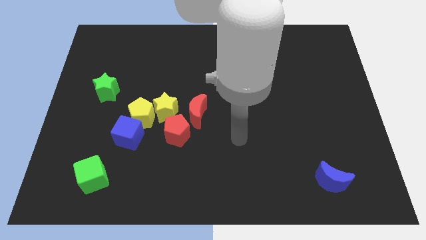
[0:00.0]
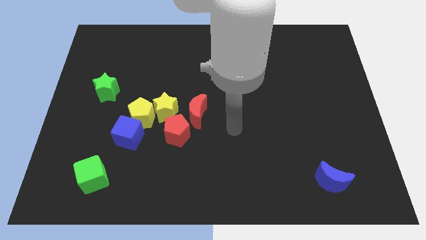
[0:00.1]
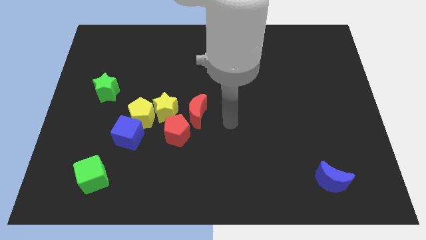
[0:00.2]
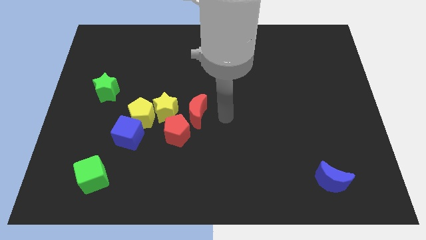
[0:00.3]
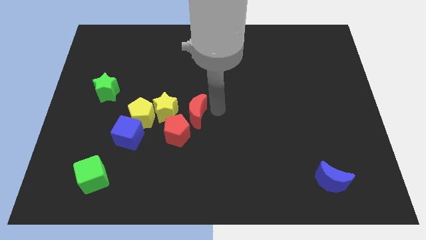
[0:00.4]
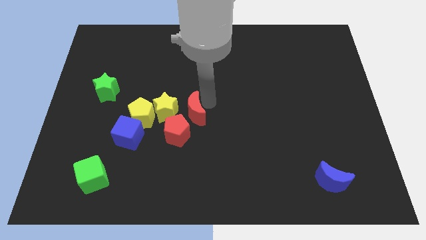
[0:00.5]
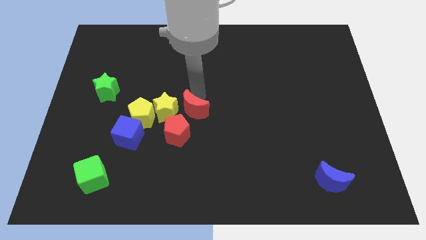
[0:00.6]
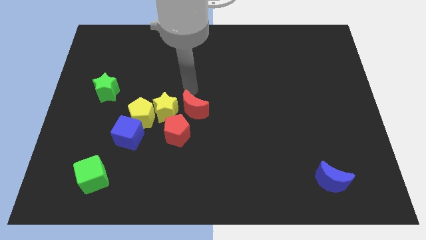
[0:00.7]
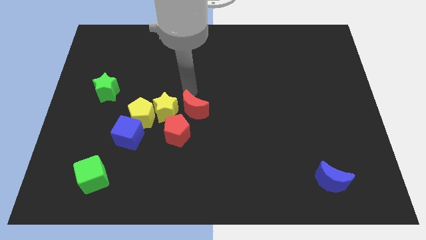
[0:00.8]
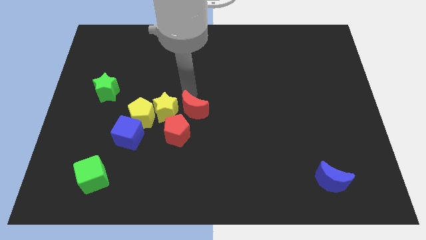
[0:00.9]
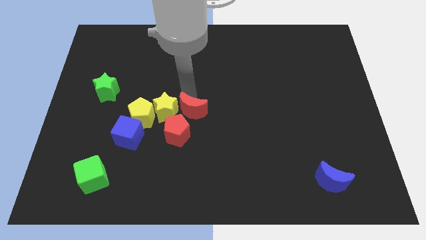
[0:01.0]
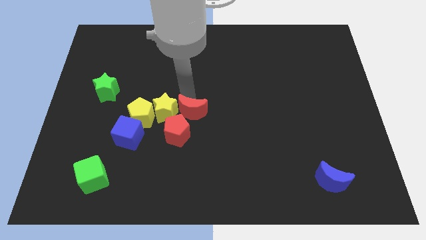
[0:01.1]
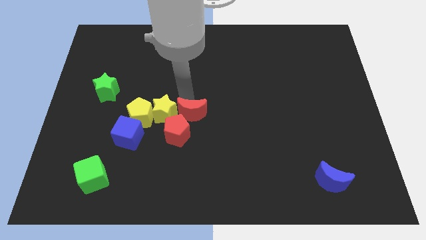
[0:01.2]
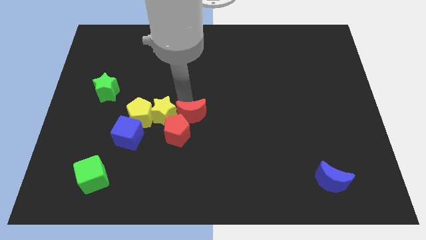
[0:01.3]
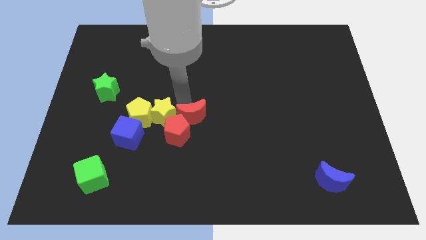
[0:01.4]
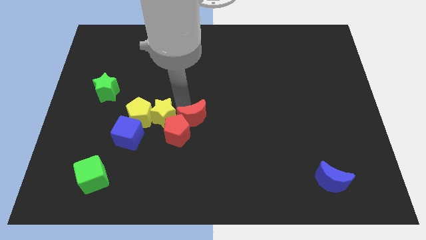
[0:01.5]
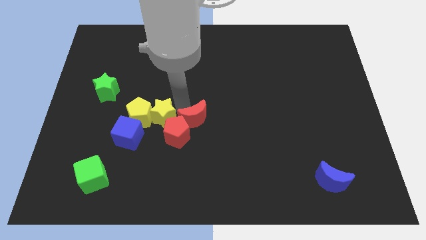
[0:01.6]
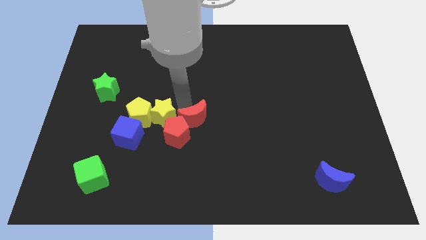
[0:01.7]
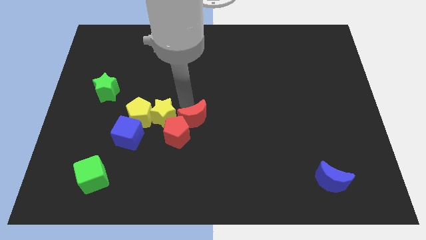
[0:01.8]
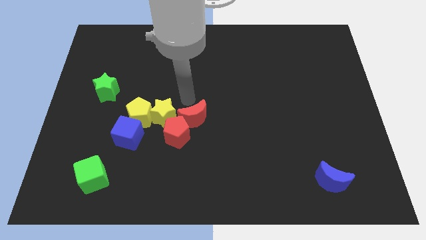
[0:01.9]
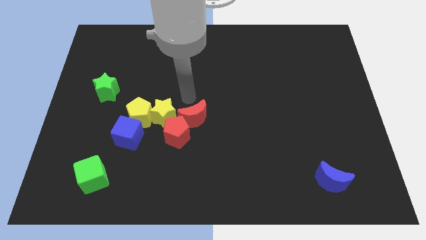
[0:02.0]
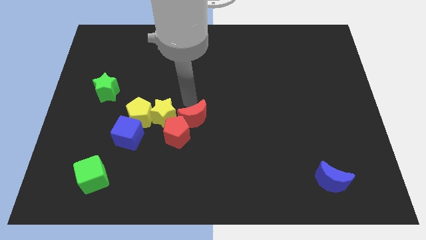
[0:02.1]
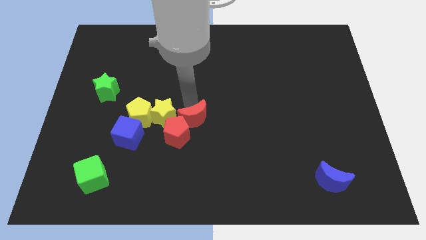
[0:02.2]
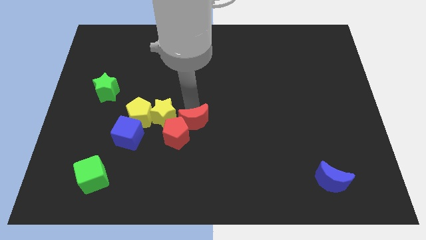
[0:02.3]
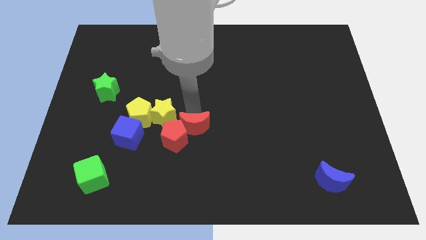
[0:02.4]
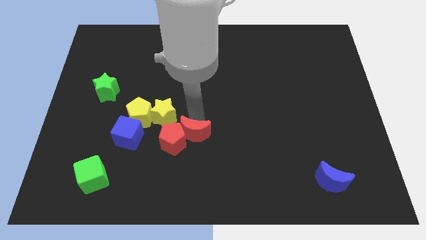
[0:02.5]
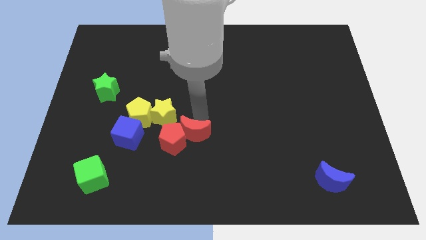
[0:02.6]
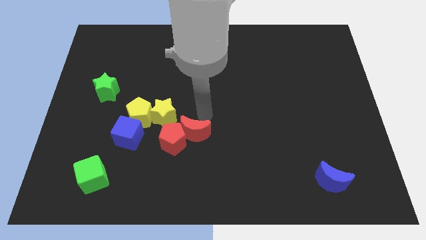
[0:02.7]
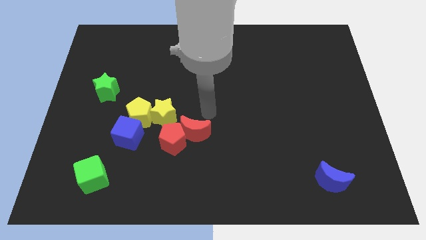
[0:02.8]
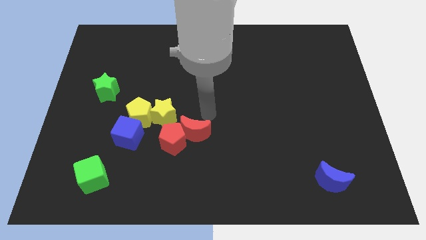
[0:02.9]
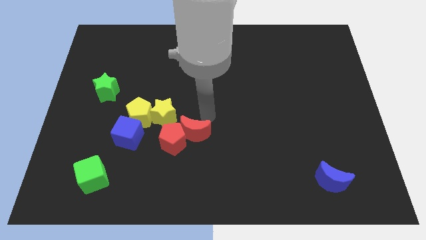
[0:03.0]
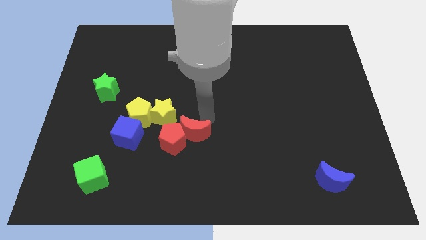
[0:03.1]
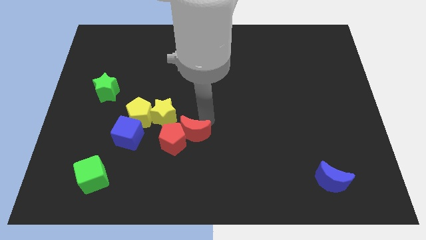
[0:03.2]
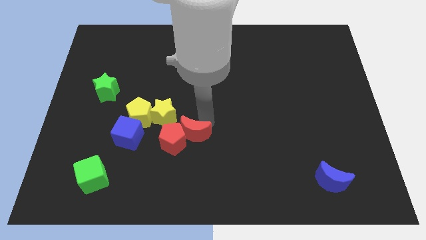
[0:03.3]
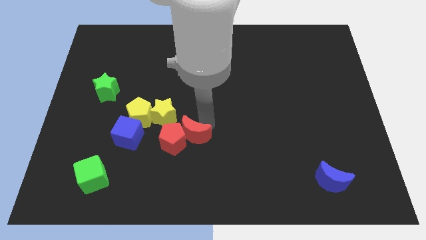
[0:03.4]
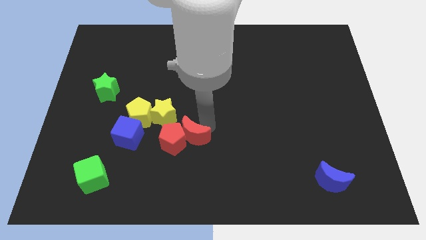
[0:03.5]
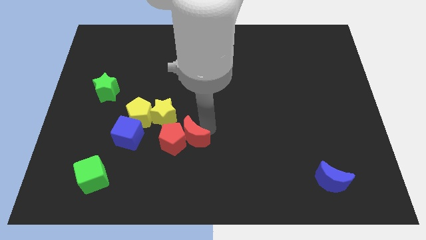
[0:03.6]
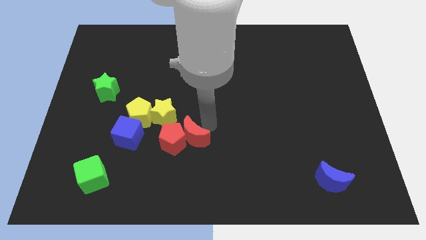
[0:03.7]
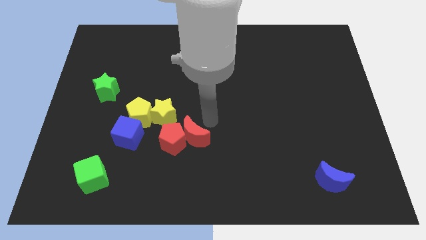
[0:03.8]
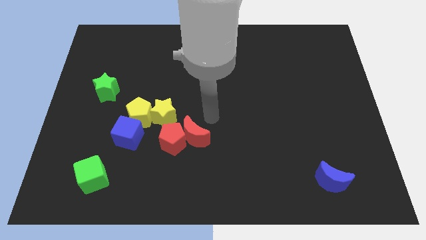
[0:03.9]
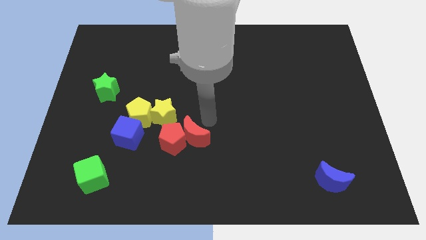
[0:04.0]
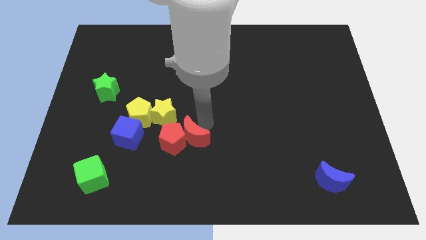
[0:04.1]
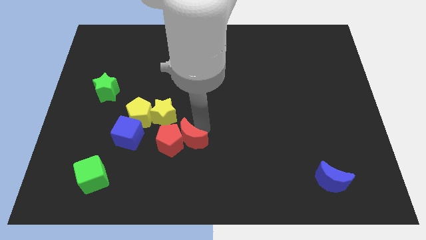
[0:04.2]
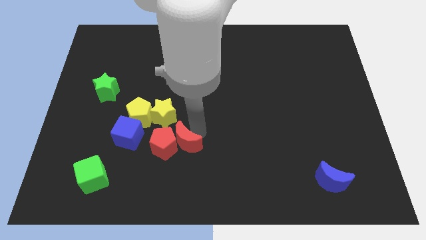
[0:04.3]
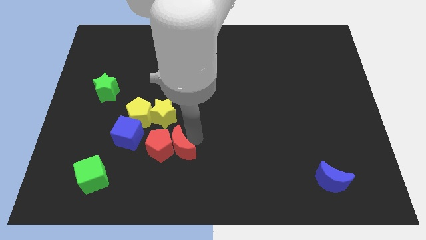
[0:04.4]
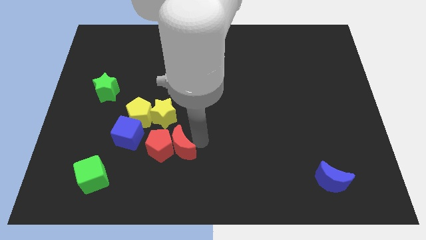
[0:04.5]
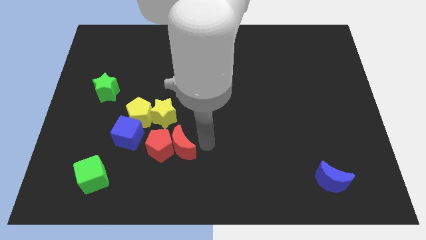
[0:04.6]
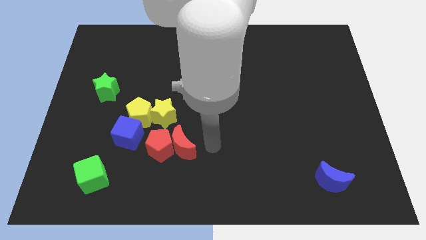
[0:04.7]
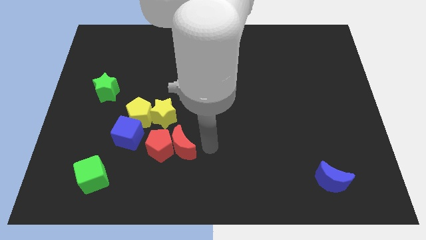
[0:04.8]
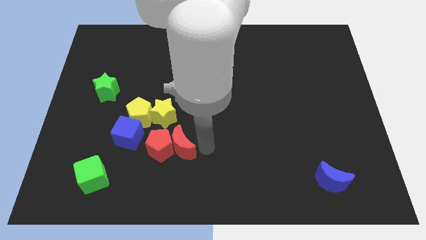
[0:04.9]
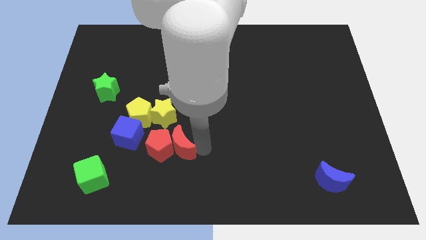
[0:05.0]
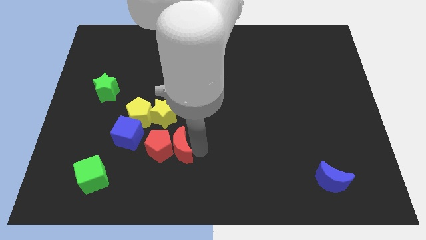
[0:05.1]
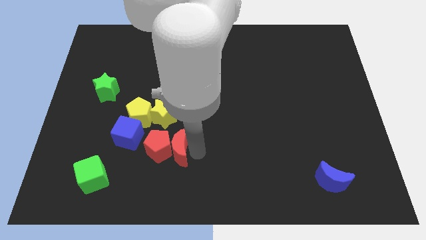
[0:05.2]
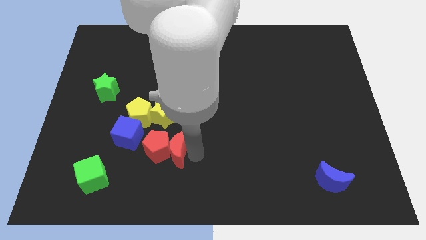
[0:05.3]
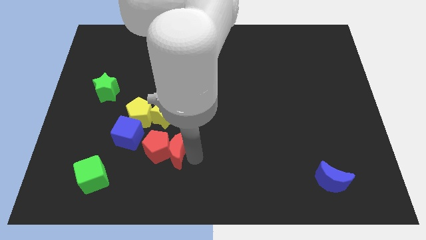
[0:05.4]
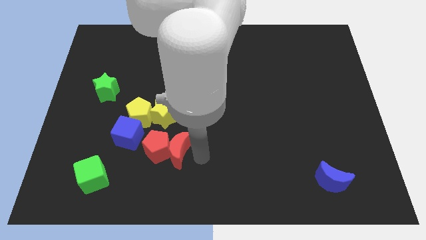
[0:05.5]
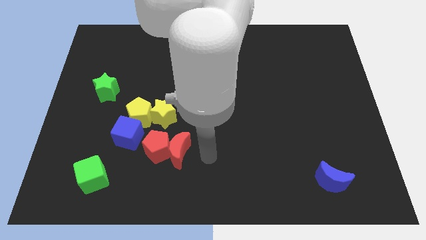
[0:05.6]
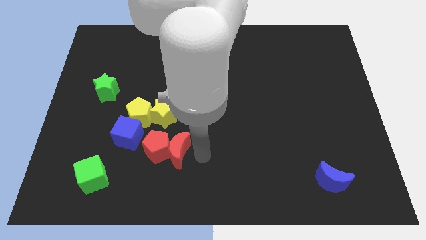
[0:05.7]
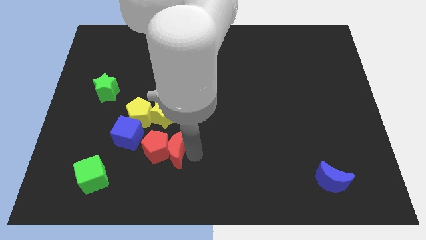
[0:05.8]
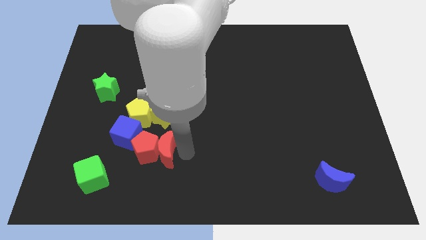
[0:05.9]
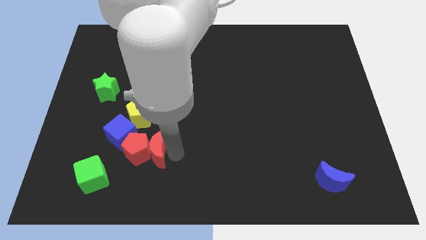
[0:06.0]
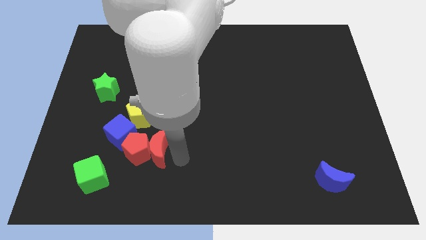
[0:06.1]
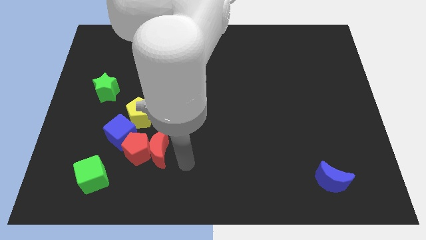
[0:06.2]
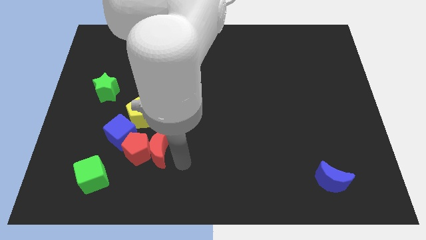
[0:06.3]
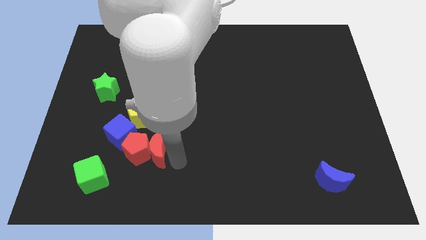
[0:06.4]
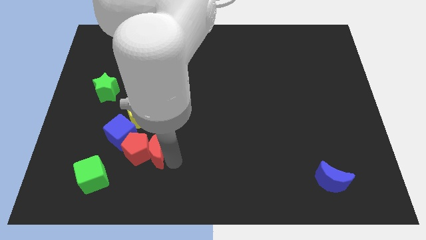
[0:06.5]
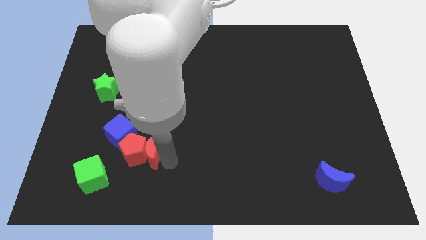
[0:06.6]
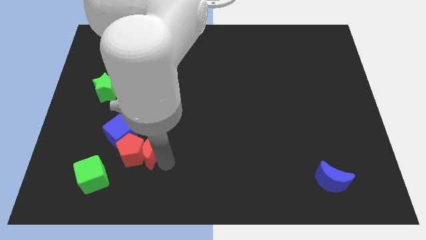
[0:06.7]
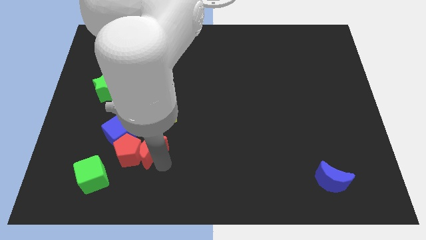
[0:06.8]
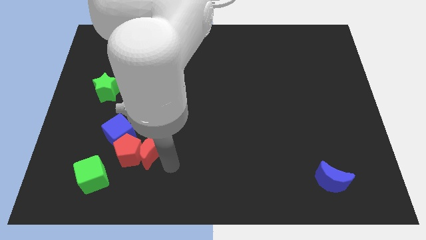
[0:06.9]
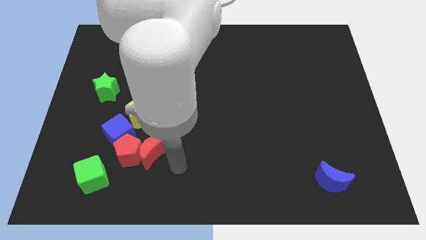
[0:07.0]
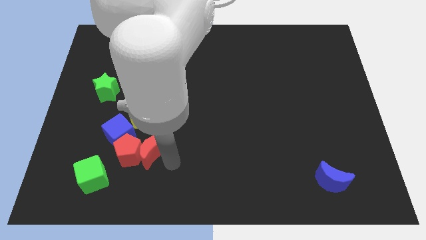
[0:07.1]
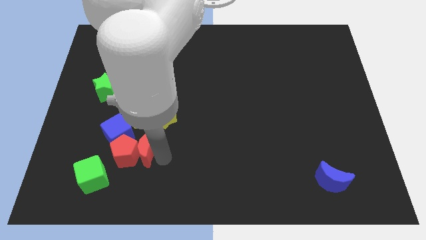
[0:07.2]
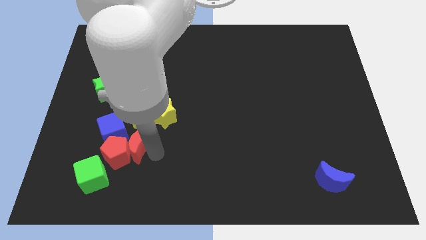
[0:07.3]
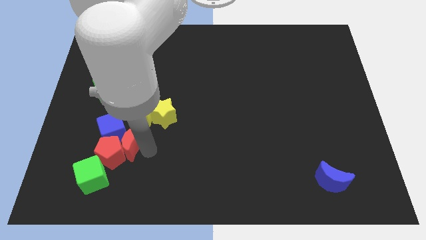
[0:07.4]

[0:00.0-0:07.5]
slide the red moon next to the blue cube

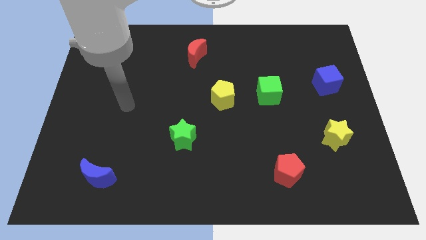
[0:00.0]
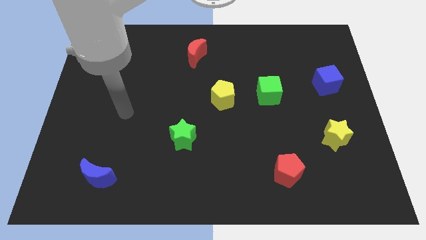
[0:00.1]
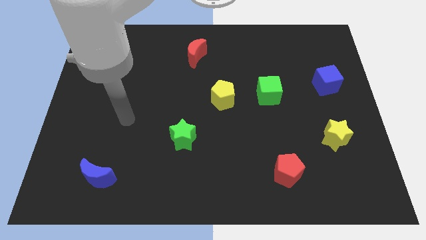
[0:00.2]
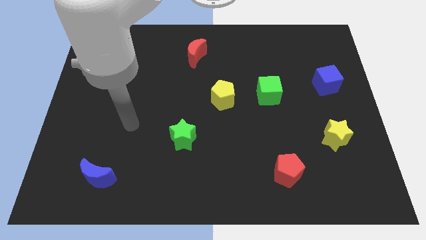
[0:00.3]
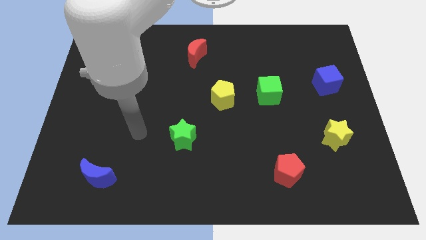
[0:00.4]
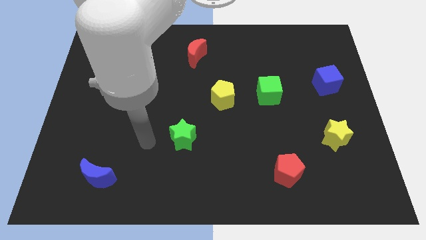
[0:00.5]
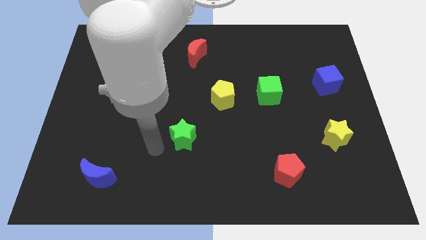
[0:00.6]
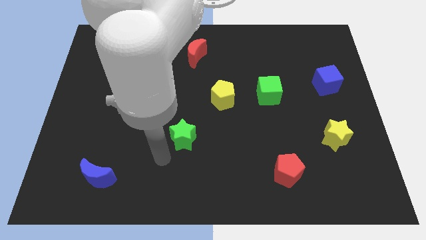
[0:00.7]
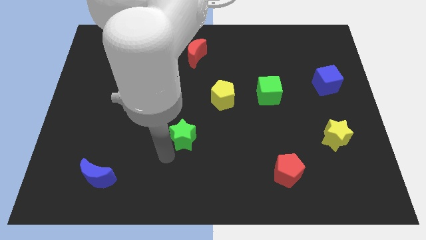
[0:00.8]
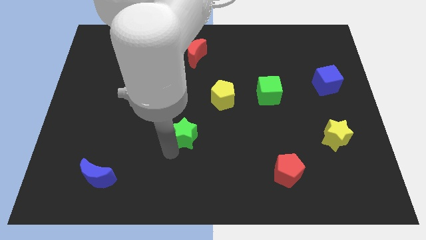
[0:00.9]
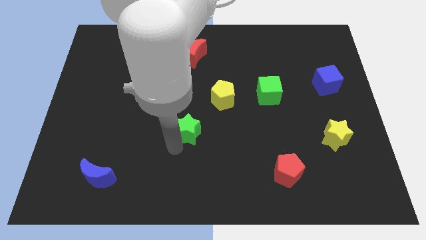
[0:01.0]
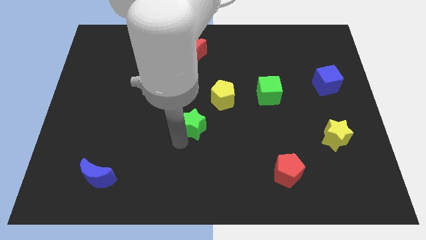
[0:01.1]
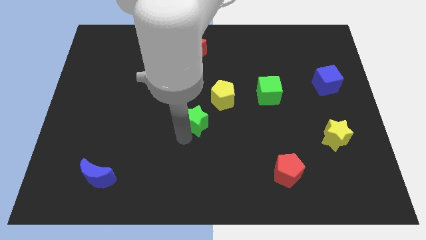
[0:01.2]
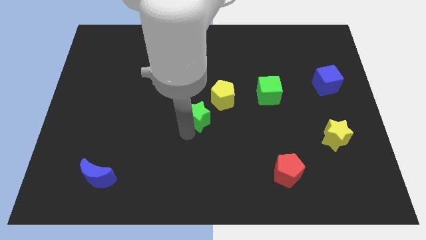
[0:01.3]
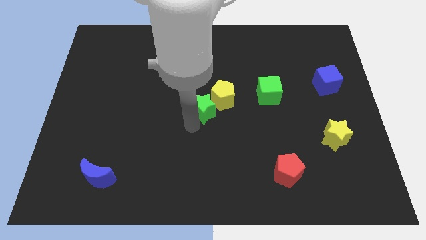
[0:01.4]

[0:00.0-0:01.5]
push the green star close to the yellow pentagon
